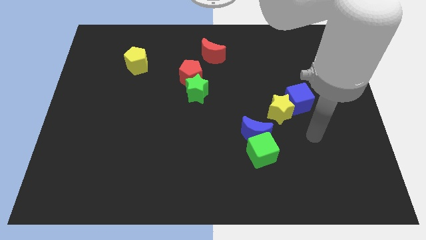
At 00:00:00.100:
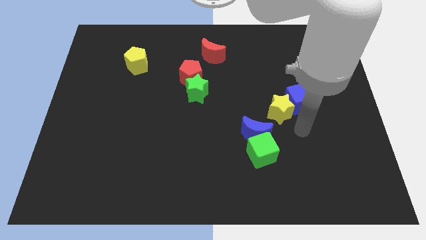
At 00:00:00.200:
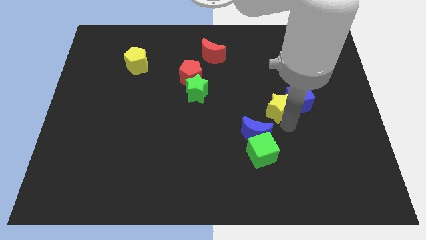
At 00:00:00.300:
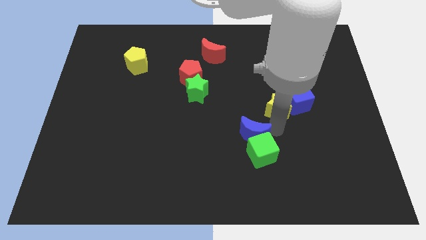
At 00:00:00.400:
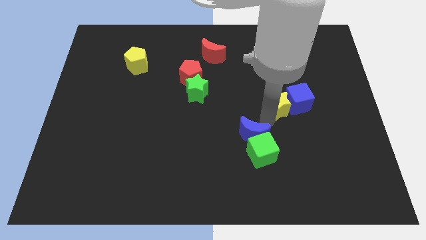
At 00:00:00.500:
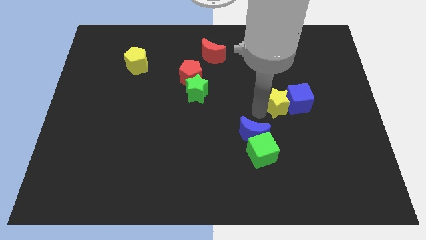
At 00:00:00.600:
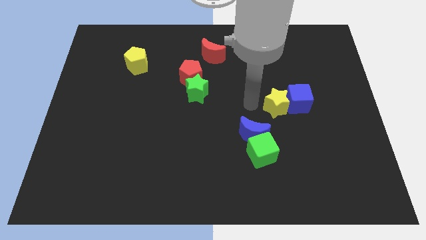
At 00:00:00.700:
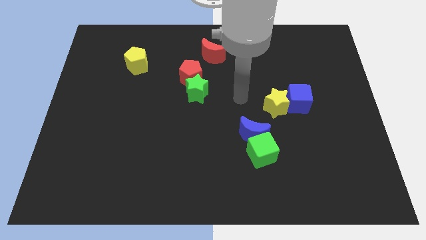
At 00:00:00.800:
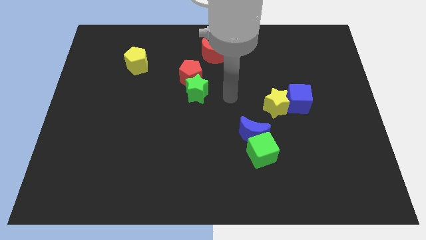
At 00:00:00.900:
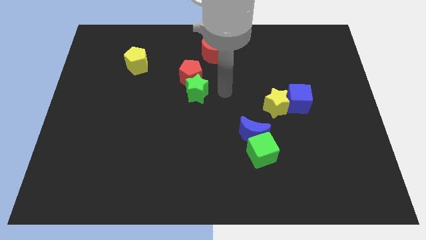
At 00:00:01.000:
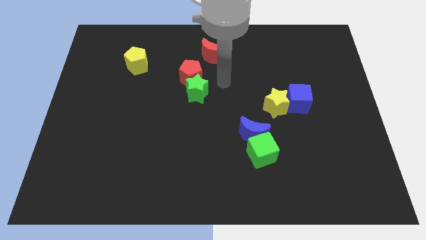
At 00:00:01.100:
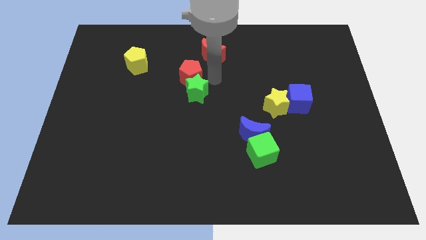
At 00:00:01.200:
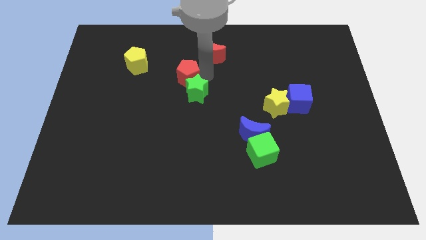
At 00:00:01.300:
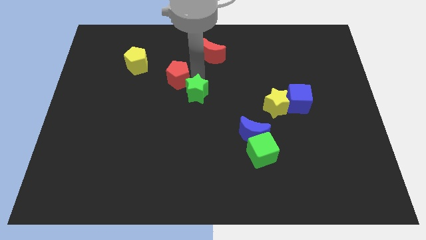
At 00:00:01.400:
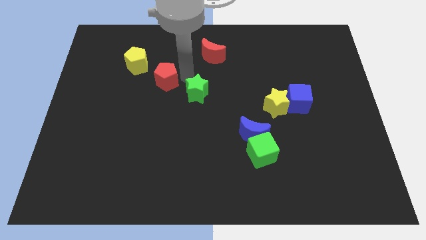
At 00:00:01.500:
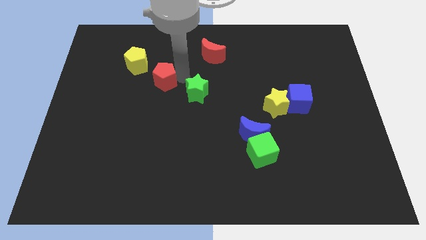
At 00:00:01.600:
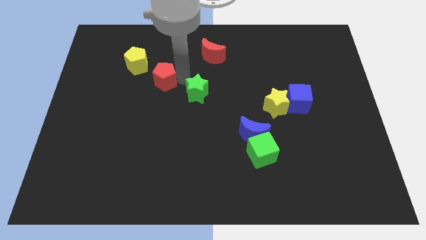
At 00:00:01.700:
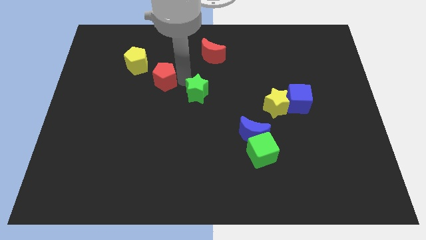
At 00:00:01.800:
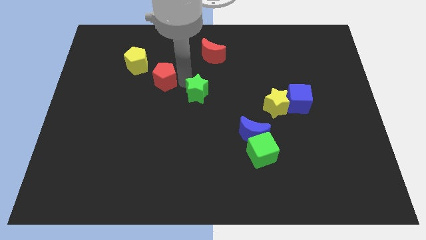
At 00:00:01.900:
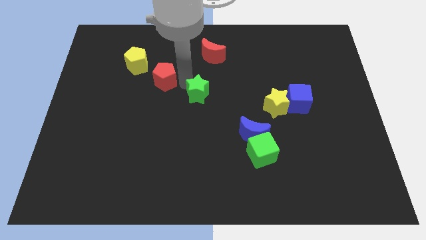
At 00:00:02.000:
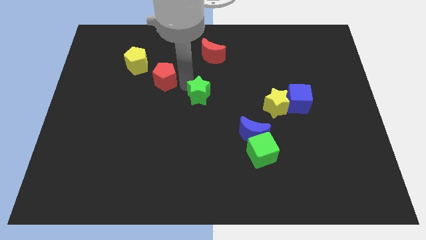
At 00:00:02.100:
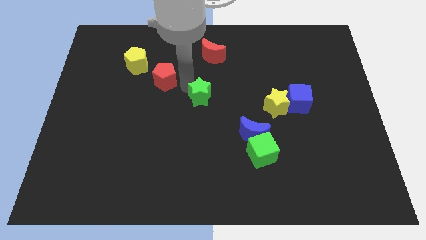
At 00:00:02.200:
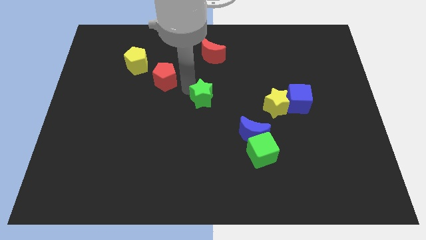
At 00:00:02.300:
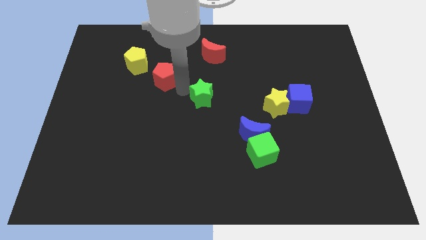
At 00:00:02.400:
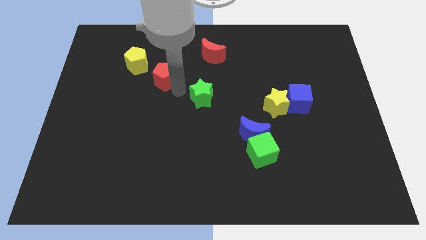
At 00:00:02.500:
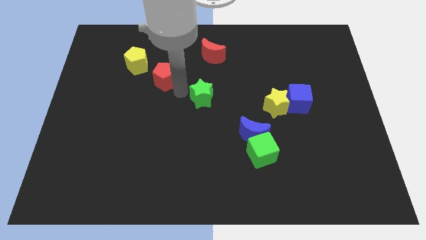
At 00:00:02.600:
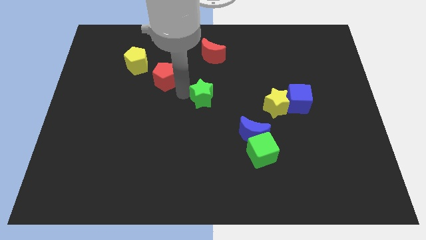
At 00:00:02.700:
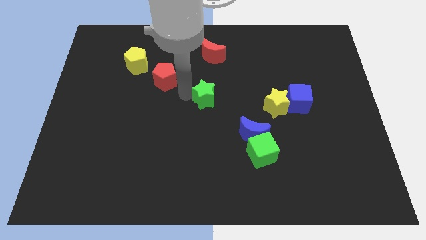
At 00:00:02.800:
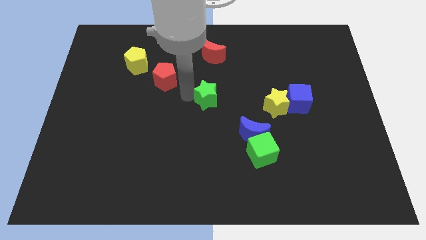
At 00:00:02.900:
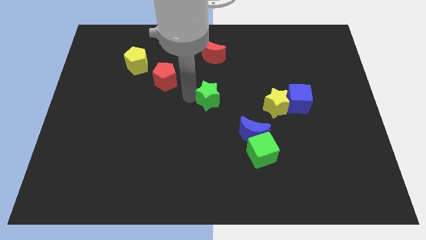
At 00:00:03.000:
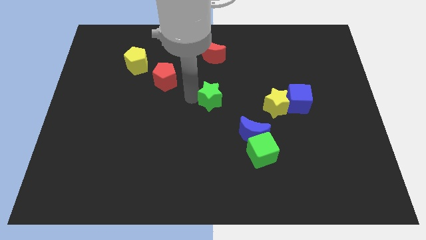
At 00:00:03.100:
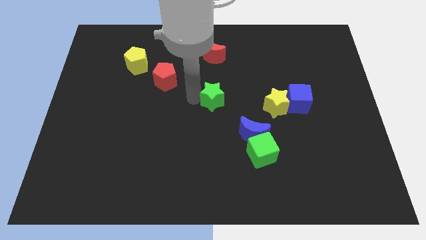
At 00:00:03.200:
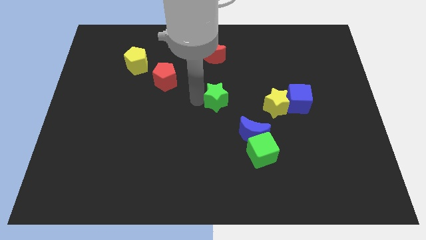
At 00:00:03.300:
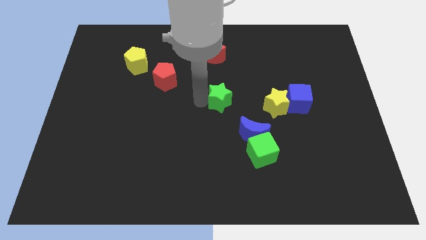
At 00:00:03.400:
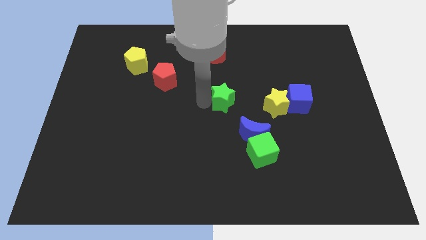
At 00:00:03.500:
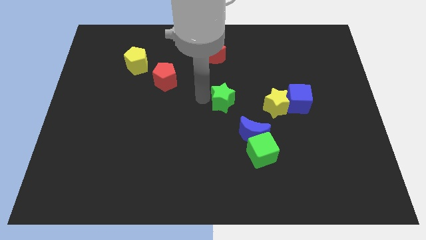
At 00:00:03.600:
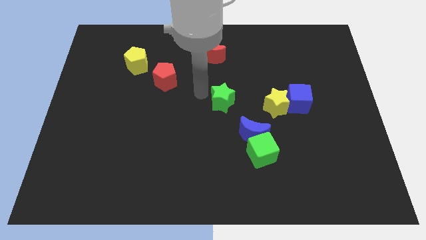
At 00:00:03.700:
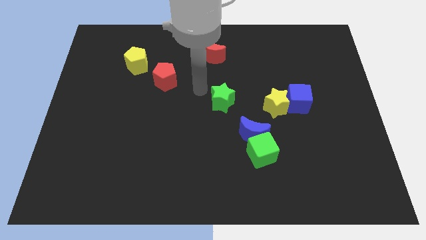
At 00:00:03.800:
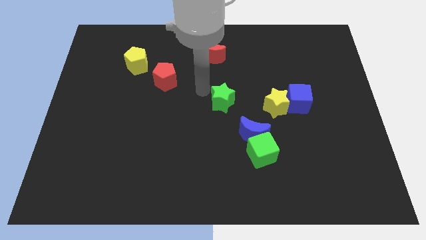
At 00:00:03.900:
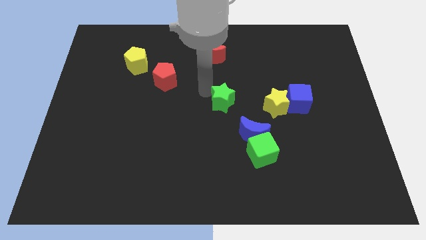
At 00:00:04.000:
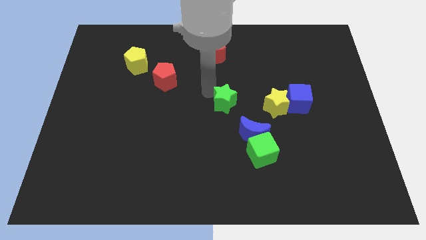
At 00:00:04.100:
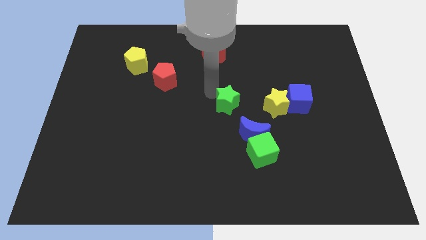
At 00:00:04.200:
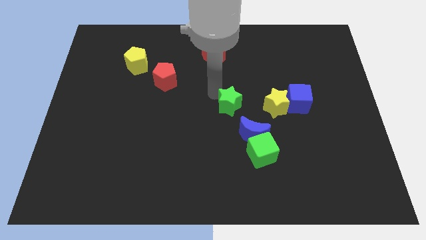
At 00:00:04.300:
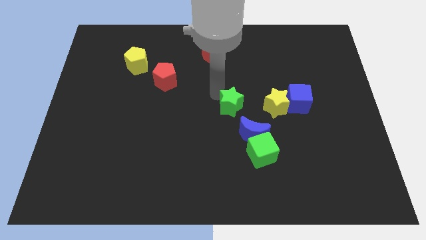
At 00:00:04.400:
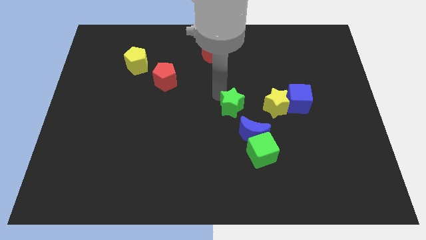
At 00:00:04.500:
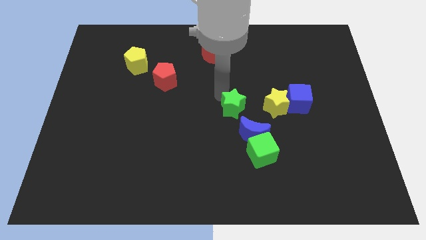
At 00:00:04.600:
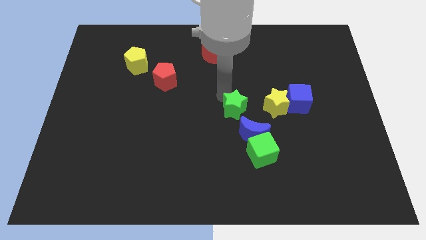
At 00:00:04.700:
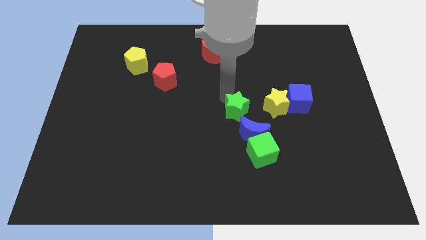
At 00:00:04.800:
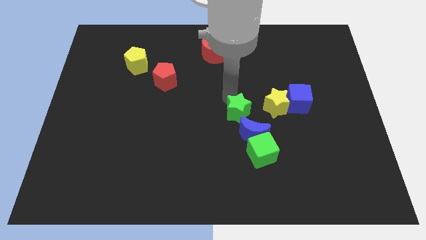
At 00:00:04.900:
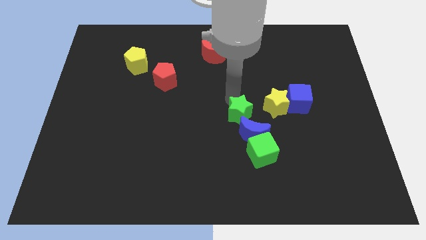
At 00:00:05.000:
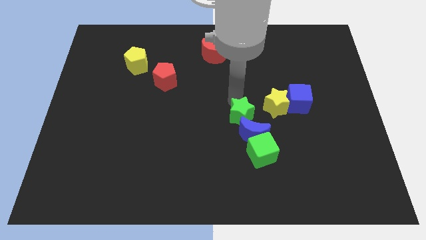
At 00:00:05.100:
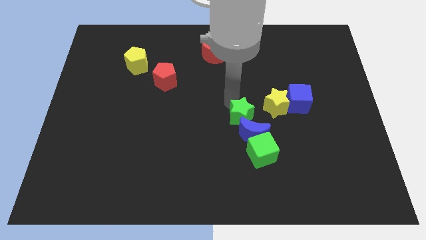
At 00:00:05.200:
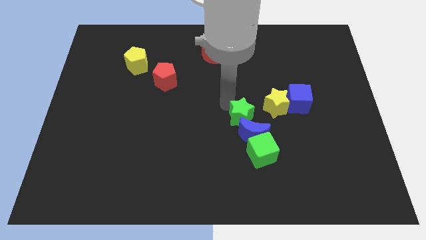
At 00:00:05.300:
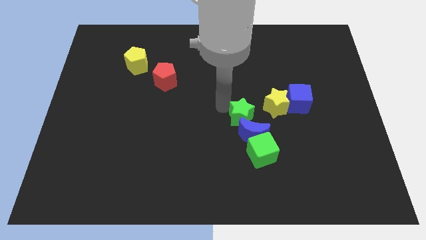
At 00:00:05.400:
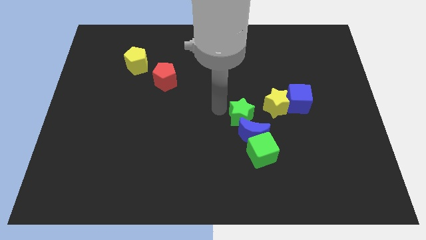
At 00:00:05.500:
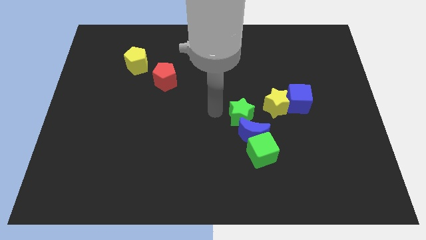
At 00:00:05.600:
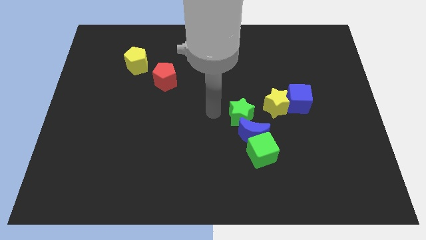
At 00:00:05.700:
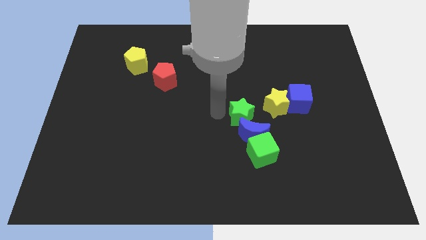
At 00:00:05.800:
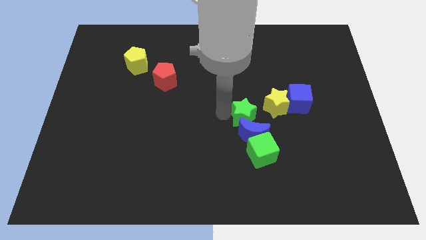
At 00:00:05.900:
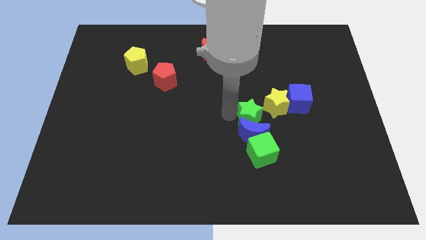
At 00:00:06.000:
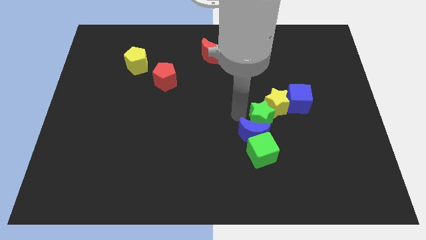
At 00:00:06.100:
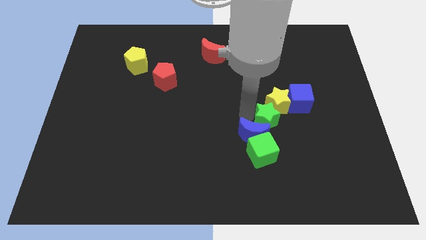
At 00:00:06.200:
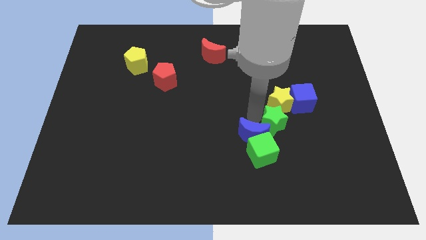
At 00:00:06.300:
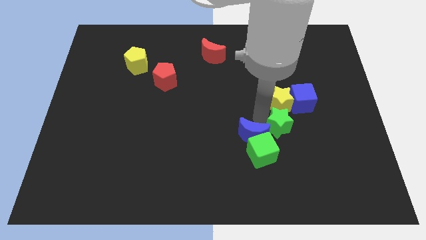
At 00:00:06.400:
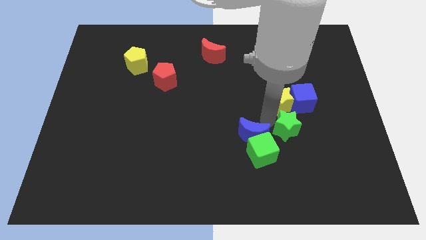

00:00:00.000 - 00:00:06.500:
push the green star below the blue cube

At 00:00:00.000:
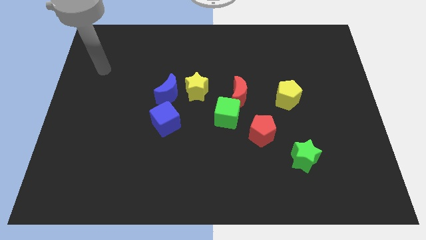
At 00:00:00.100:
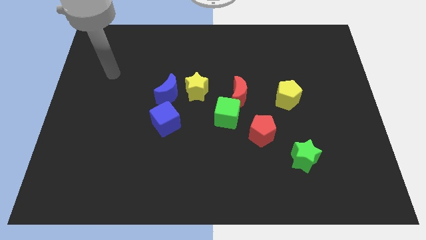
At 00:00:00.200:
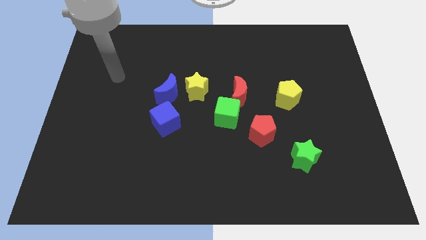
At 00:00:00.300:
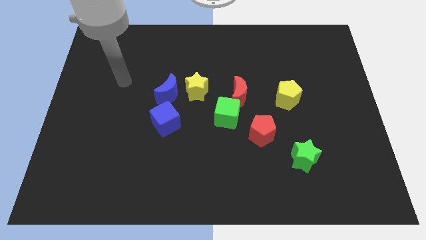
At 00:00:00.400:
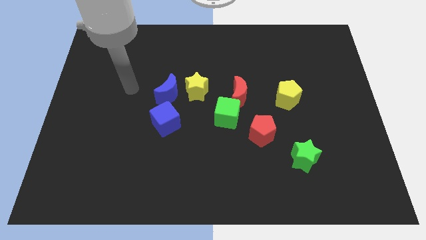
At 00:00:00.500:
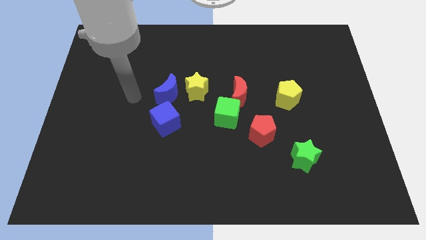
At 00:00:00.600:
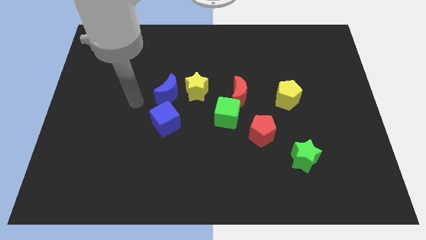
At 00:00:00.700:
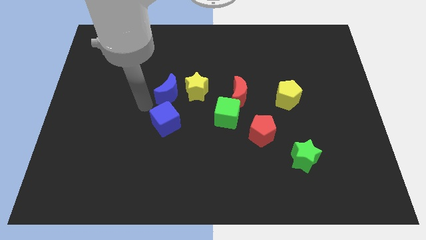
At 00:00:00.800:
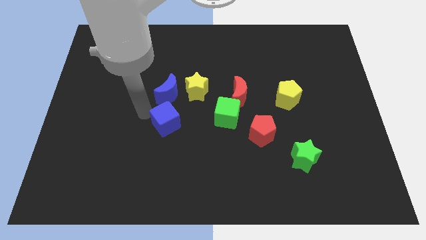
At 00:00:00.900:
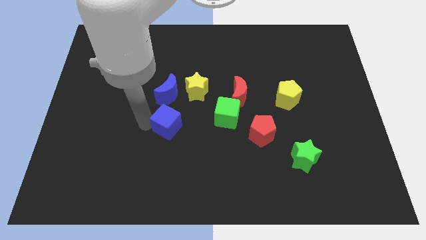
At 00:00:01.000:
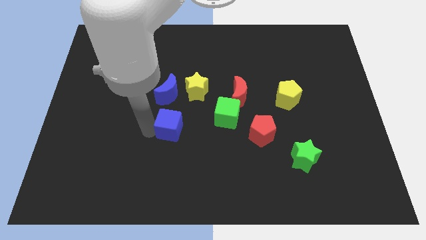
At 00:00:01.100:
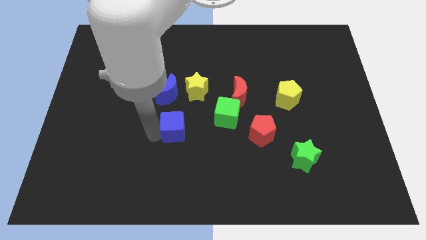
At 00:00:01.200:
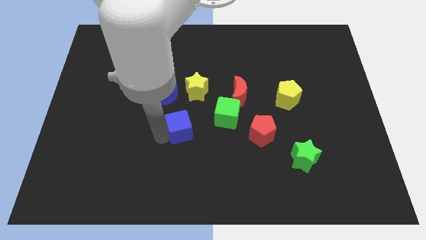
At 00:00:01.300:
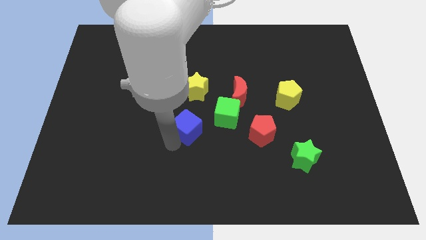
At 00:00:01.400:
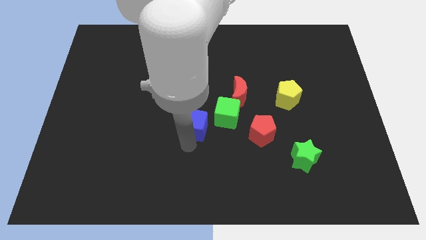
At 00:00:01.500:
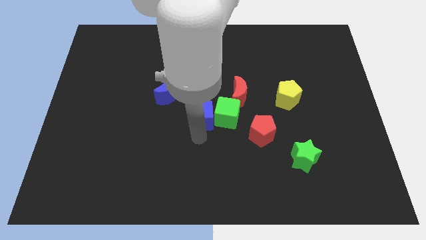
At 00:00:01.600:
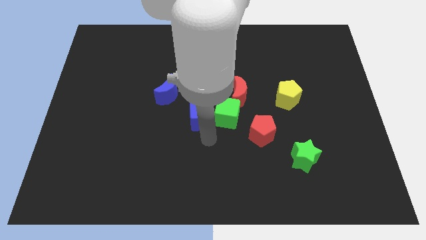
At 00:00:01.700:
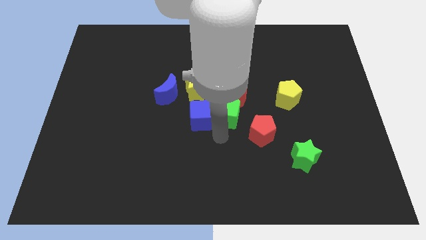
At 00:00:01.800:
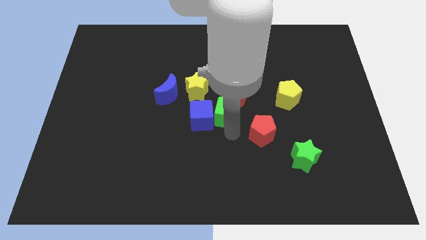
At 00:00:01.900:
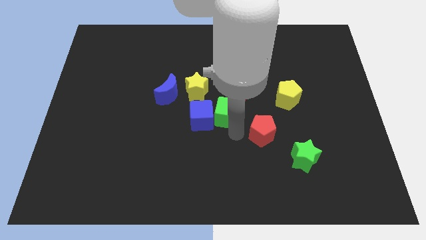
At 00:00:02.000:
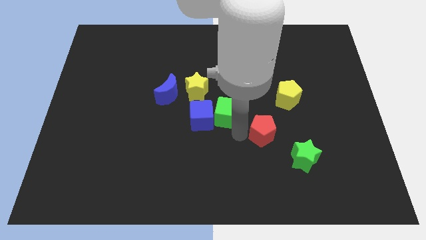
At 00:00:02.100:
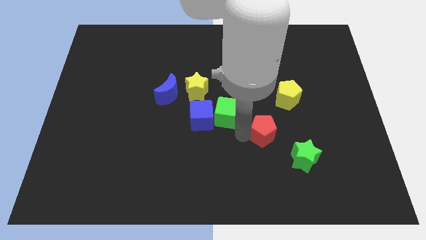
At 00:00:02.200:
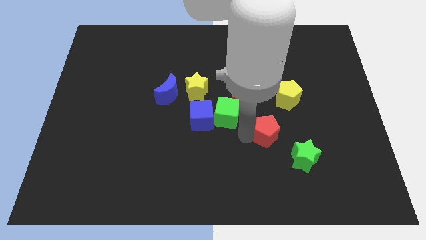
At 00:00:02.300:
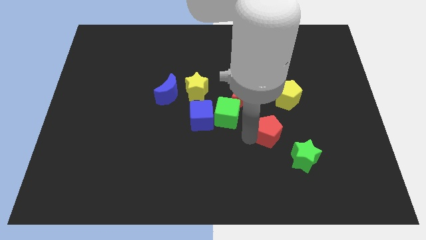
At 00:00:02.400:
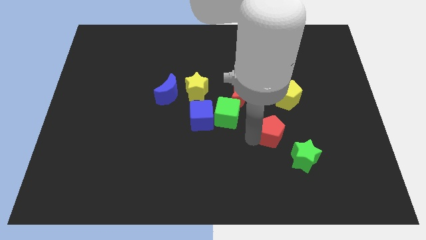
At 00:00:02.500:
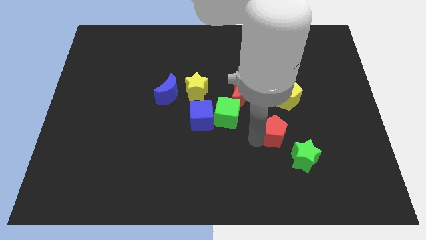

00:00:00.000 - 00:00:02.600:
move the red pentagon to the bottom side of the yellow pentagon
